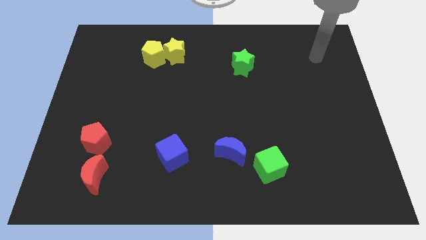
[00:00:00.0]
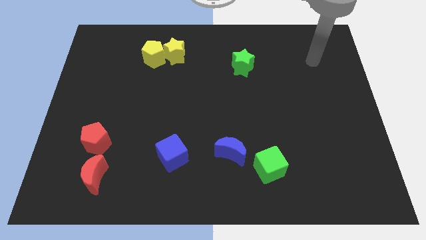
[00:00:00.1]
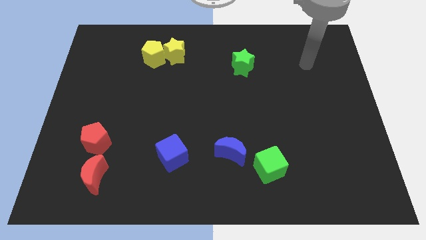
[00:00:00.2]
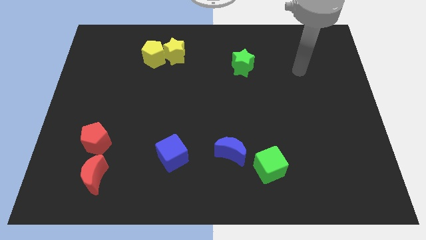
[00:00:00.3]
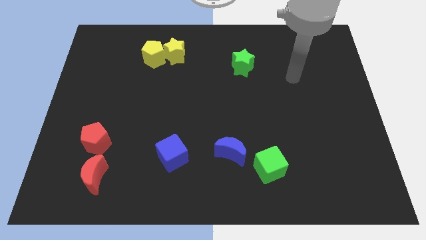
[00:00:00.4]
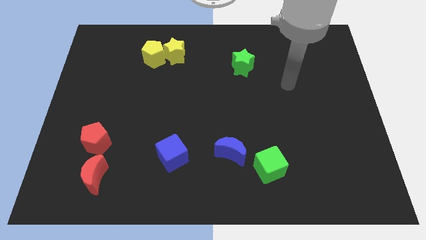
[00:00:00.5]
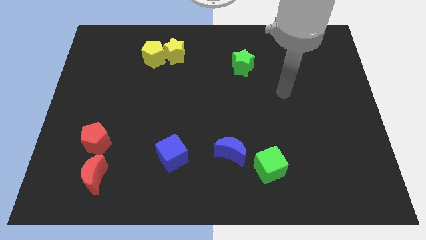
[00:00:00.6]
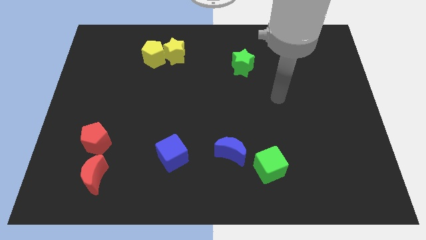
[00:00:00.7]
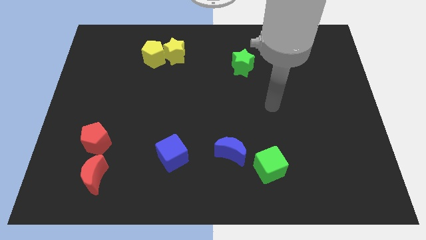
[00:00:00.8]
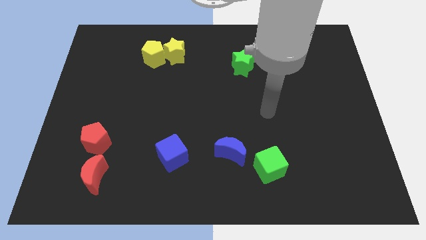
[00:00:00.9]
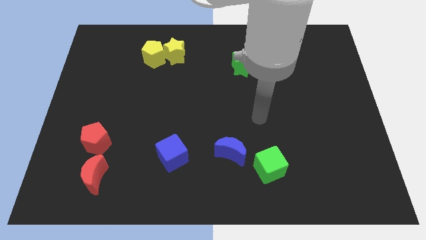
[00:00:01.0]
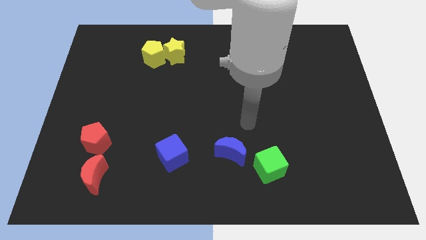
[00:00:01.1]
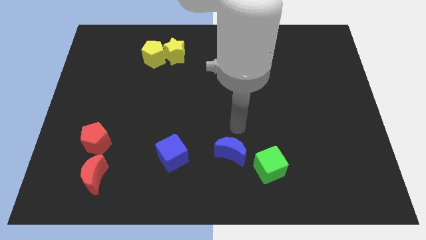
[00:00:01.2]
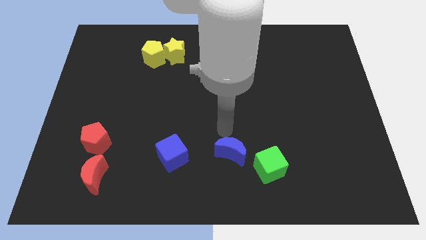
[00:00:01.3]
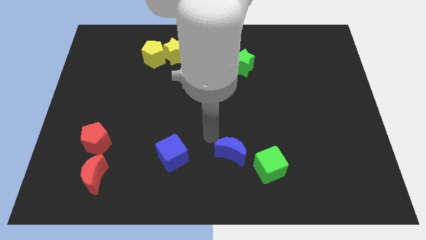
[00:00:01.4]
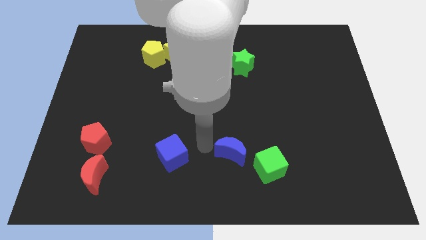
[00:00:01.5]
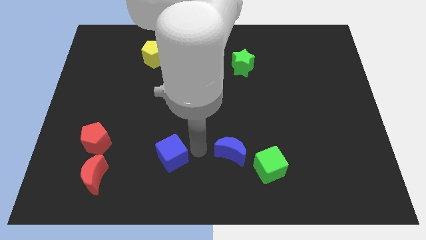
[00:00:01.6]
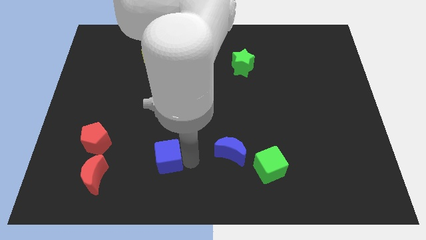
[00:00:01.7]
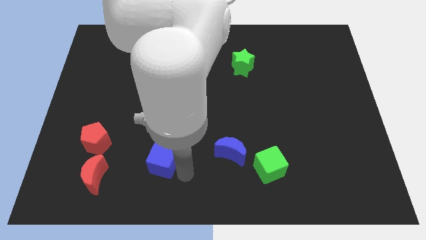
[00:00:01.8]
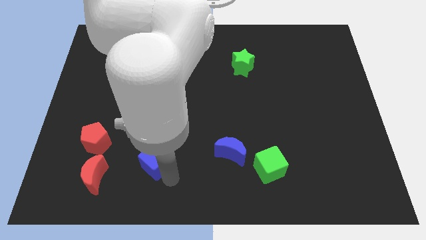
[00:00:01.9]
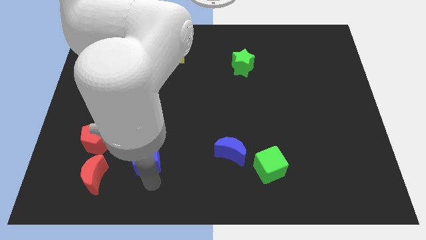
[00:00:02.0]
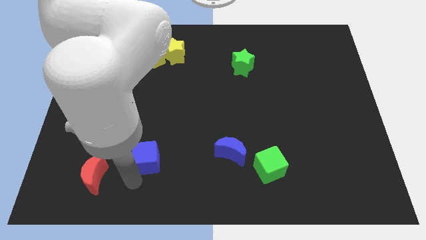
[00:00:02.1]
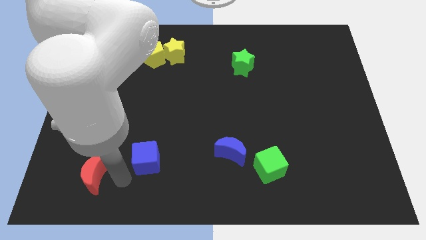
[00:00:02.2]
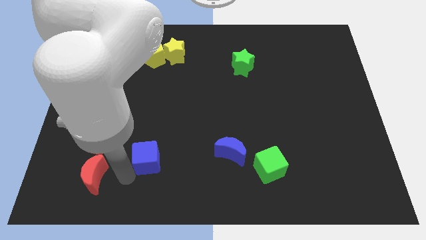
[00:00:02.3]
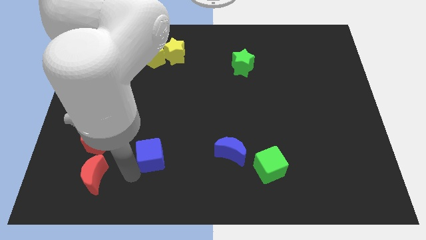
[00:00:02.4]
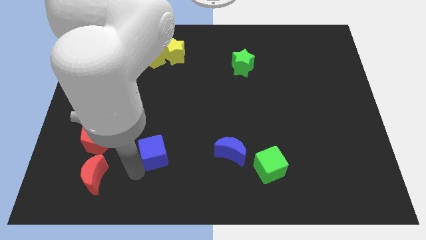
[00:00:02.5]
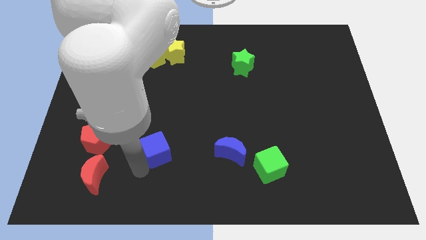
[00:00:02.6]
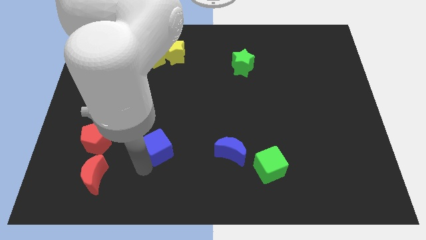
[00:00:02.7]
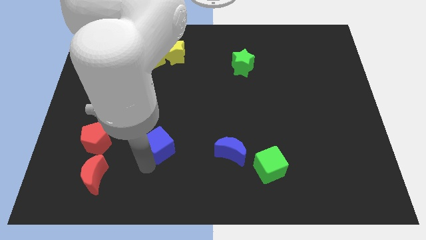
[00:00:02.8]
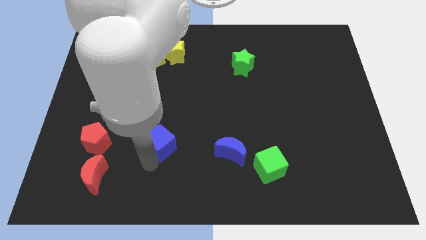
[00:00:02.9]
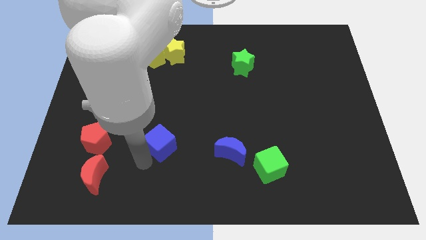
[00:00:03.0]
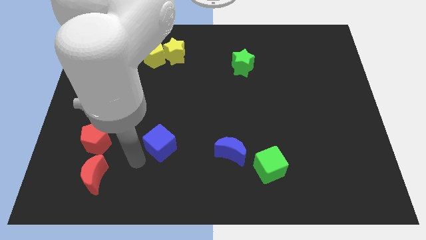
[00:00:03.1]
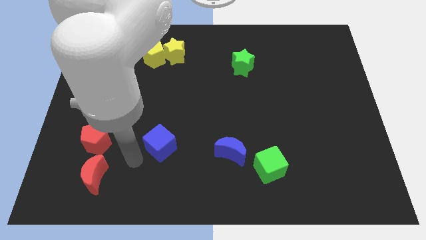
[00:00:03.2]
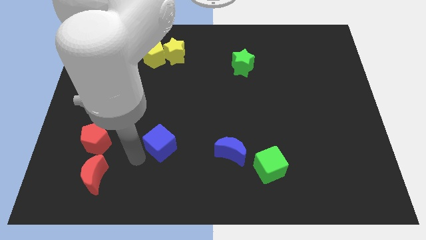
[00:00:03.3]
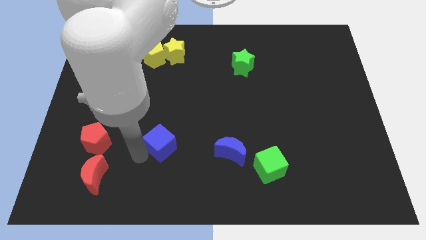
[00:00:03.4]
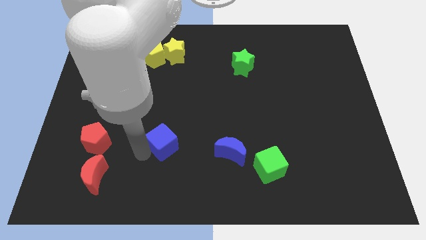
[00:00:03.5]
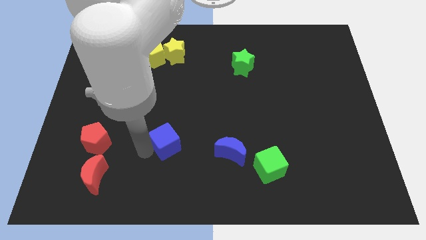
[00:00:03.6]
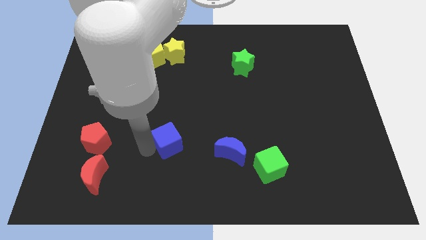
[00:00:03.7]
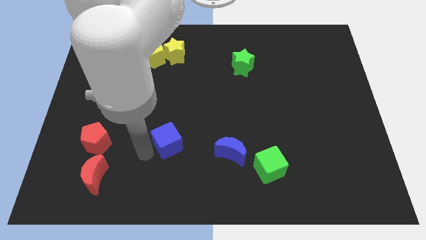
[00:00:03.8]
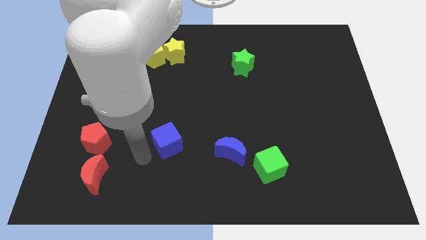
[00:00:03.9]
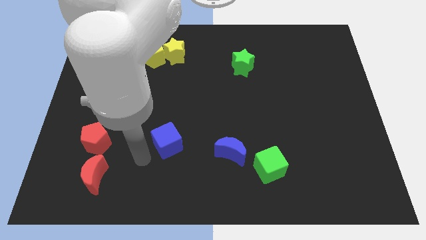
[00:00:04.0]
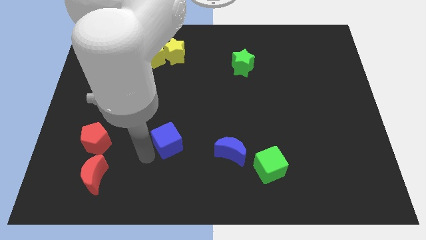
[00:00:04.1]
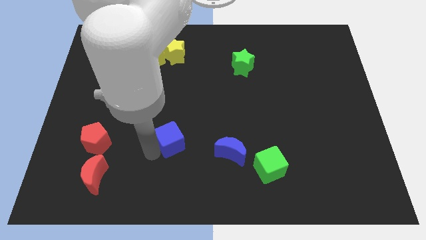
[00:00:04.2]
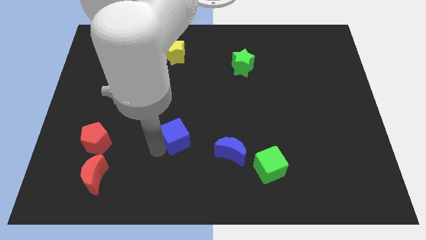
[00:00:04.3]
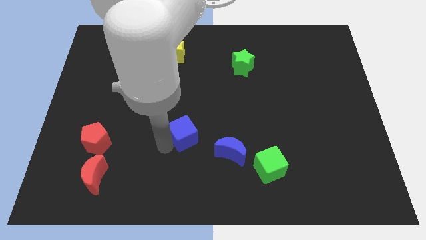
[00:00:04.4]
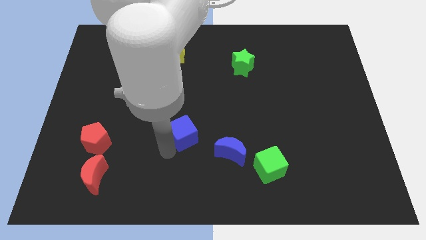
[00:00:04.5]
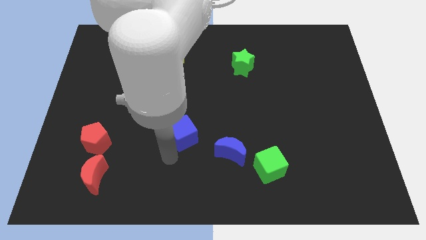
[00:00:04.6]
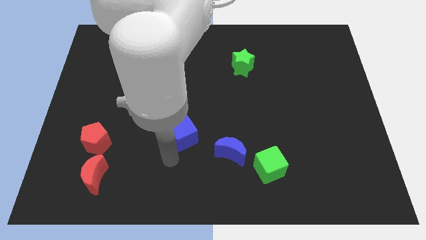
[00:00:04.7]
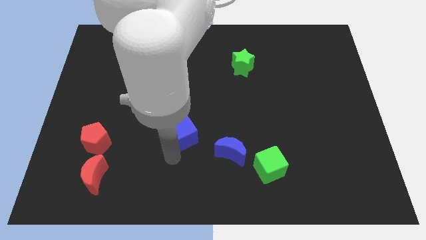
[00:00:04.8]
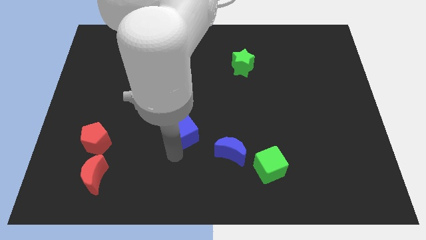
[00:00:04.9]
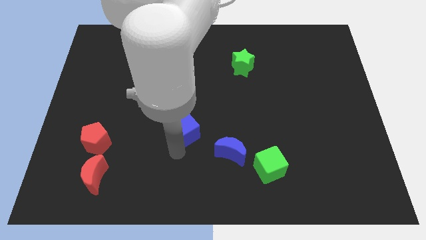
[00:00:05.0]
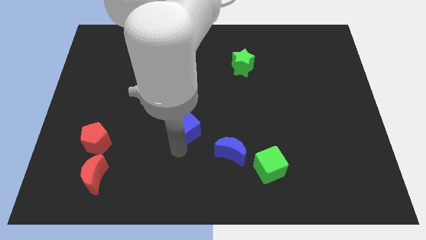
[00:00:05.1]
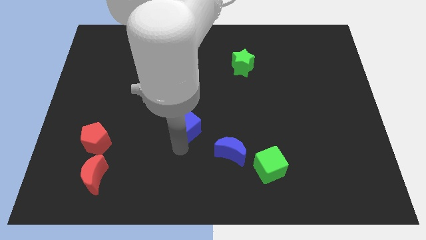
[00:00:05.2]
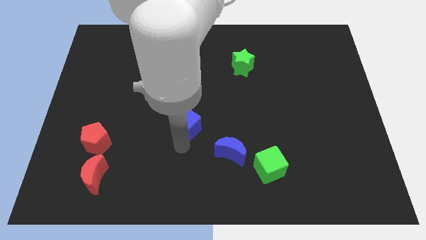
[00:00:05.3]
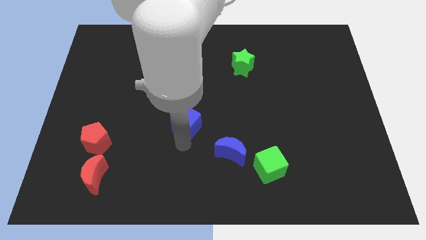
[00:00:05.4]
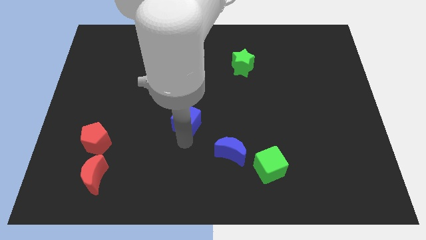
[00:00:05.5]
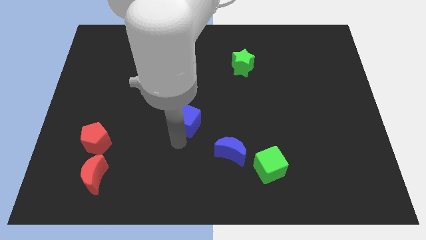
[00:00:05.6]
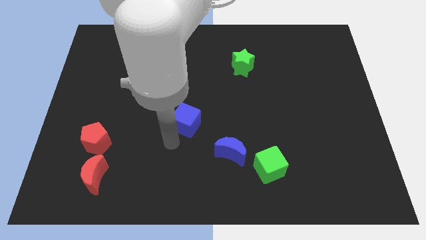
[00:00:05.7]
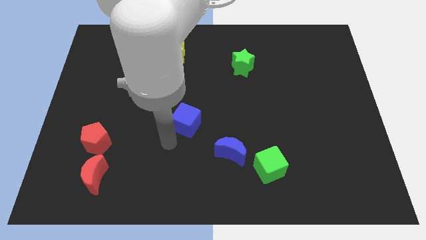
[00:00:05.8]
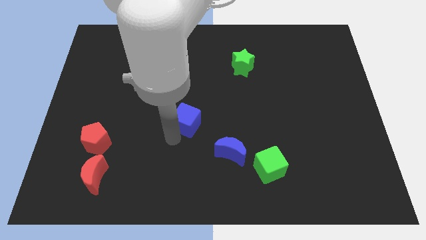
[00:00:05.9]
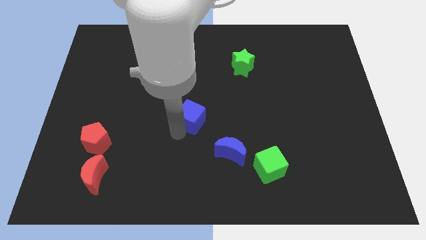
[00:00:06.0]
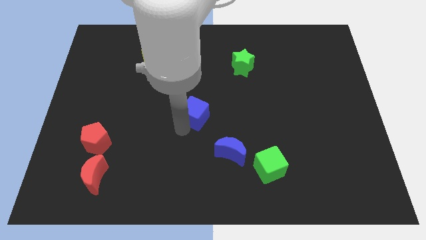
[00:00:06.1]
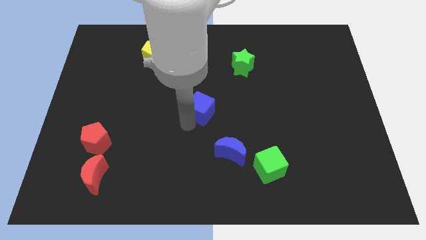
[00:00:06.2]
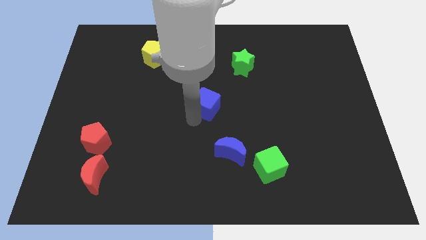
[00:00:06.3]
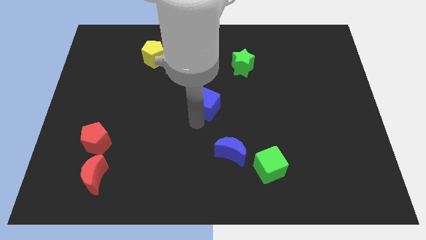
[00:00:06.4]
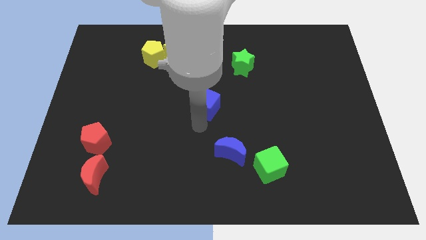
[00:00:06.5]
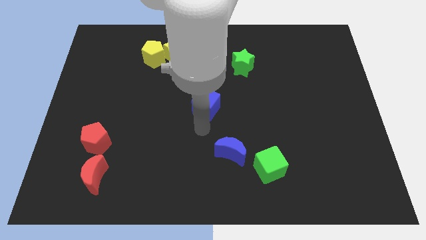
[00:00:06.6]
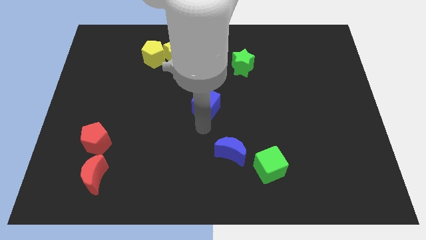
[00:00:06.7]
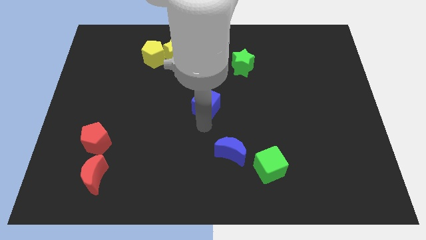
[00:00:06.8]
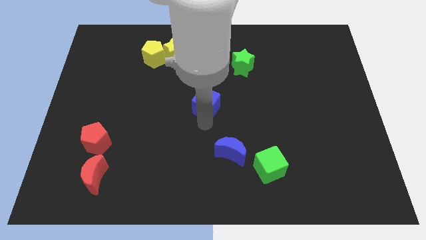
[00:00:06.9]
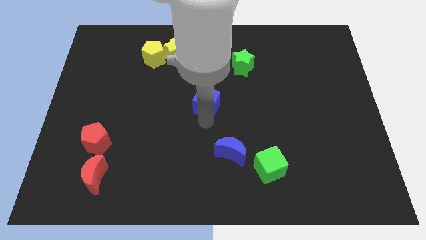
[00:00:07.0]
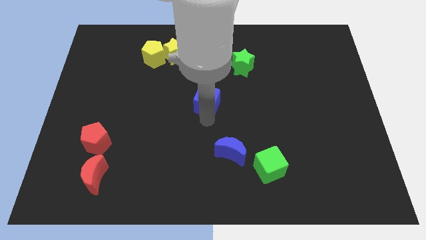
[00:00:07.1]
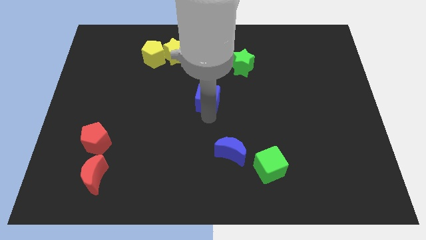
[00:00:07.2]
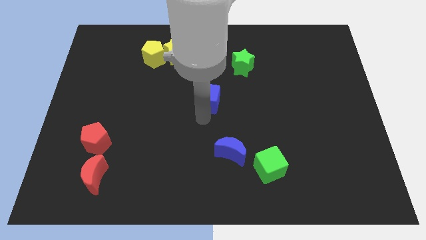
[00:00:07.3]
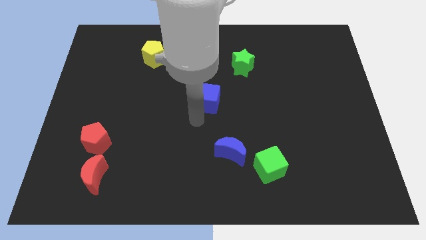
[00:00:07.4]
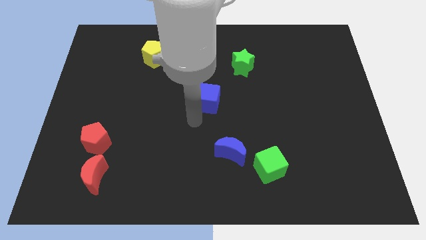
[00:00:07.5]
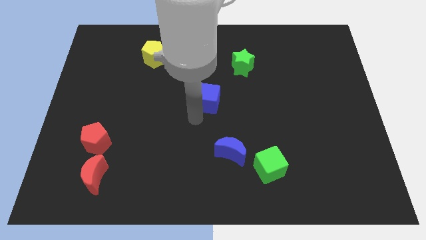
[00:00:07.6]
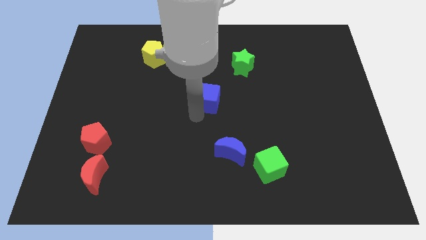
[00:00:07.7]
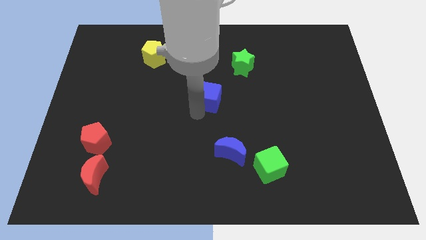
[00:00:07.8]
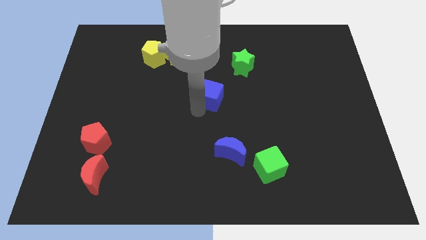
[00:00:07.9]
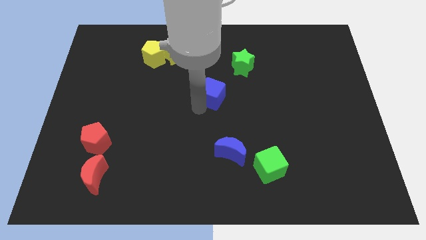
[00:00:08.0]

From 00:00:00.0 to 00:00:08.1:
slide the blue cube to the bottom left of the green star
